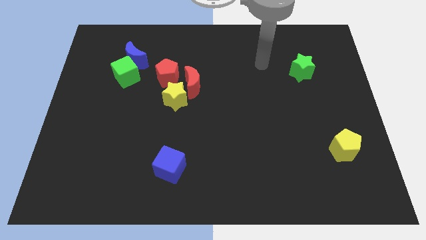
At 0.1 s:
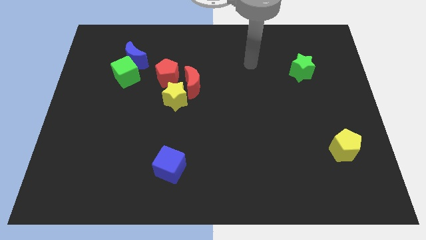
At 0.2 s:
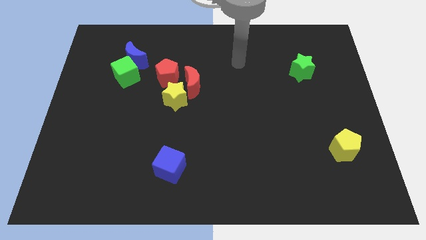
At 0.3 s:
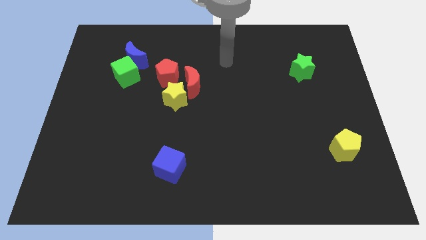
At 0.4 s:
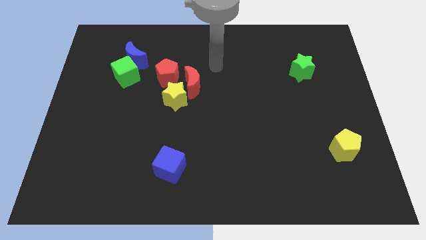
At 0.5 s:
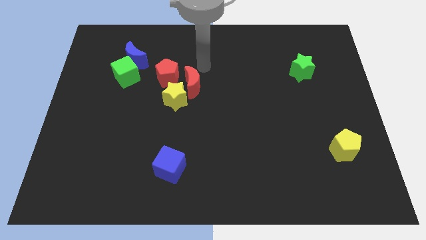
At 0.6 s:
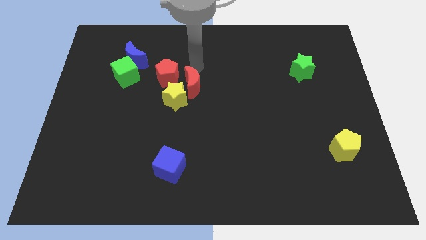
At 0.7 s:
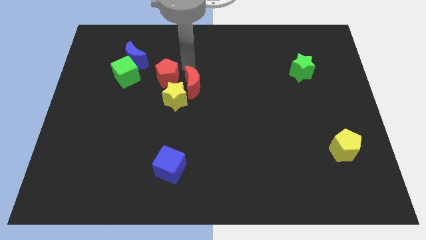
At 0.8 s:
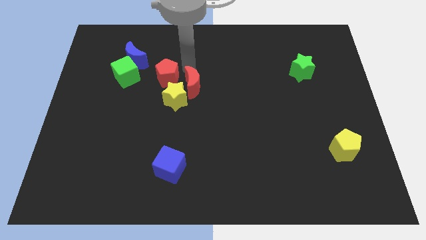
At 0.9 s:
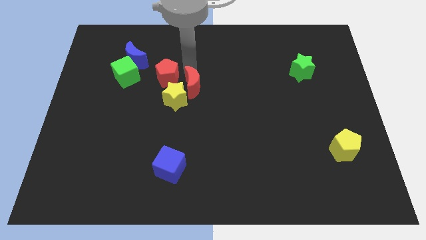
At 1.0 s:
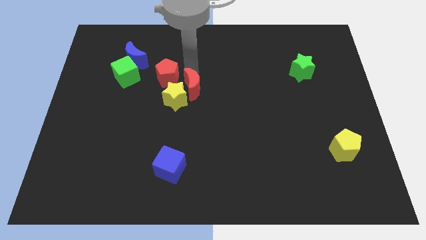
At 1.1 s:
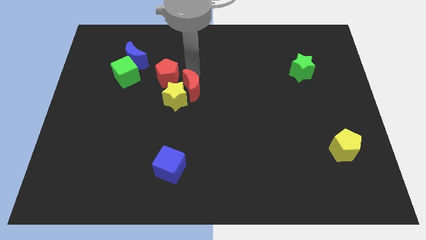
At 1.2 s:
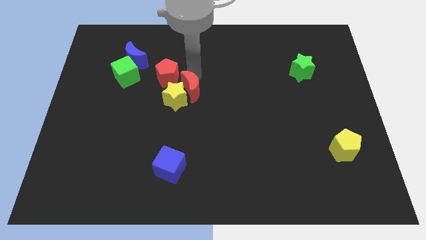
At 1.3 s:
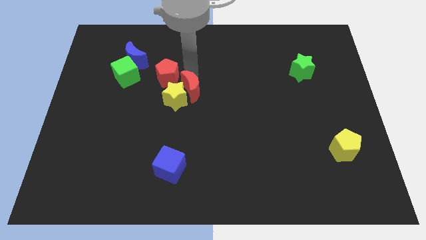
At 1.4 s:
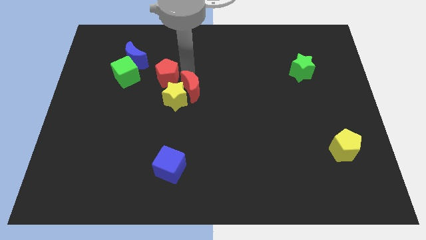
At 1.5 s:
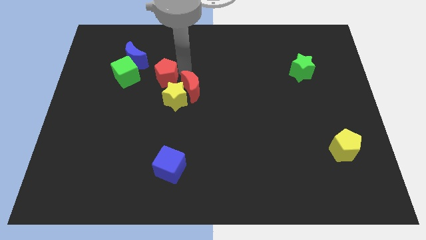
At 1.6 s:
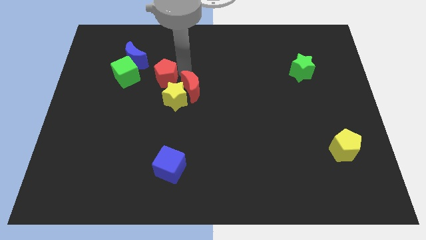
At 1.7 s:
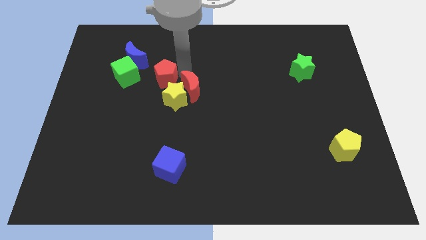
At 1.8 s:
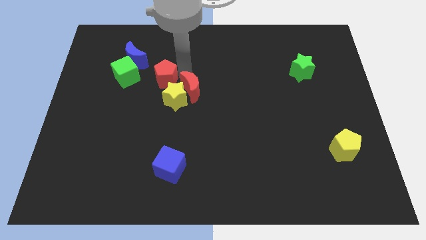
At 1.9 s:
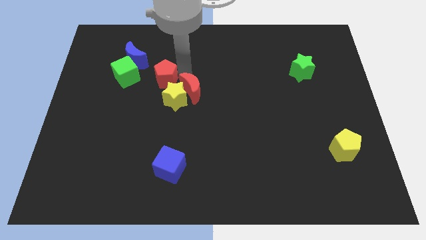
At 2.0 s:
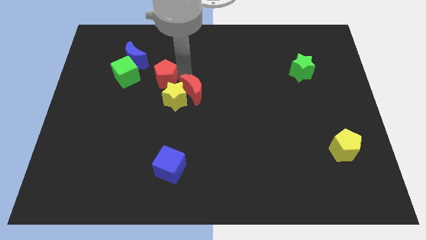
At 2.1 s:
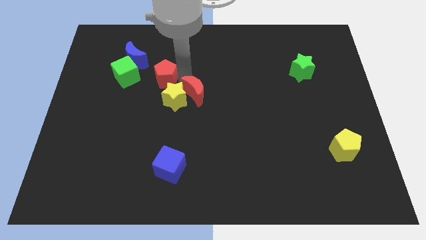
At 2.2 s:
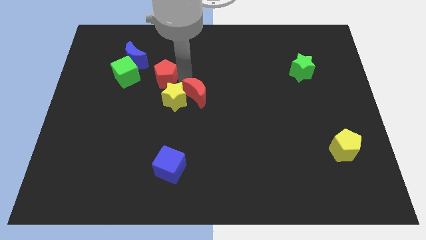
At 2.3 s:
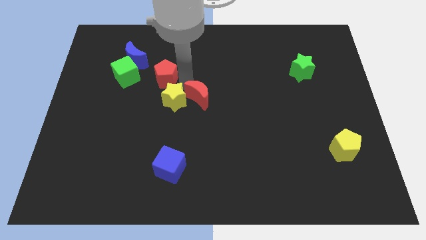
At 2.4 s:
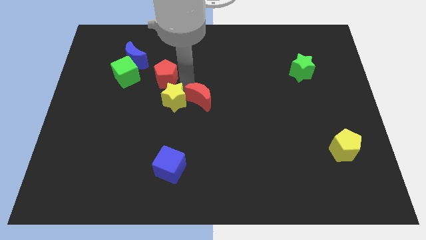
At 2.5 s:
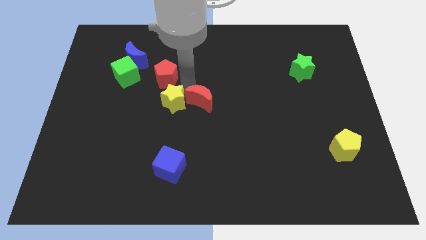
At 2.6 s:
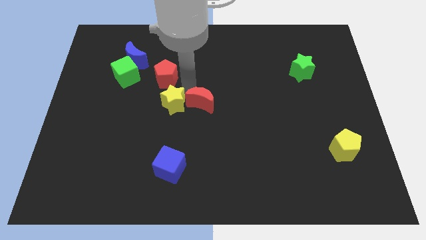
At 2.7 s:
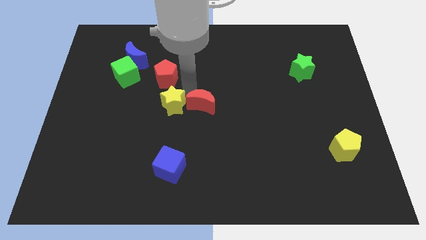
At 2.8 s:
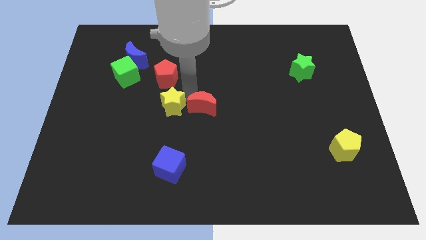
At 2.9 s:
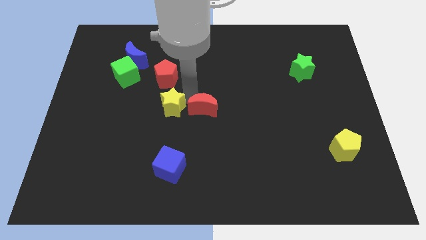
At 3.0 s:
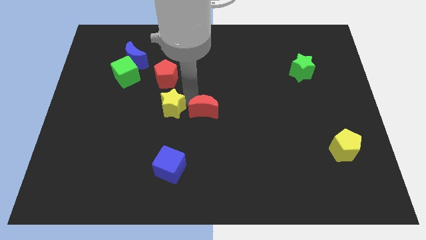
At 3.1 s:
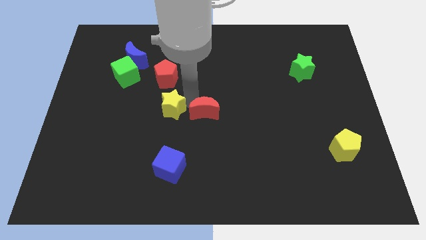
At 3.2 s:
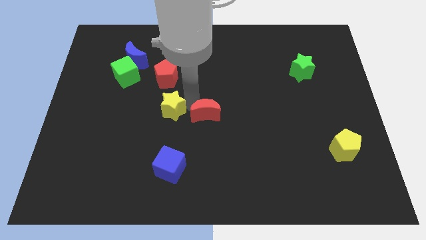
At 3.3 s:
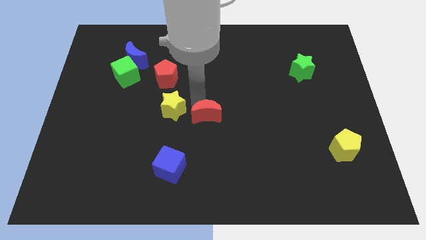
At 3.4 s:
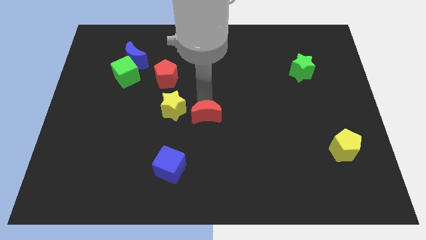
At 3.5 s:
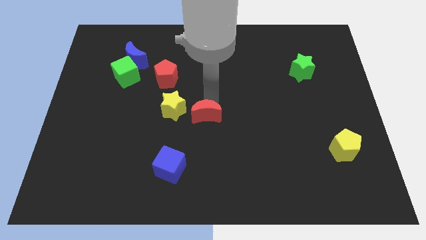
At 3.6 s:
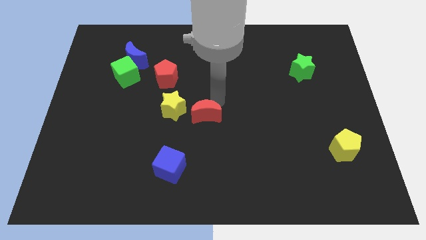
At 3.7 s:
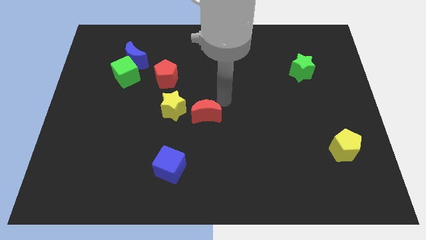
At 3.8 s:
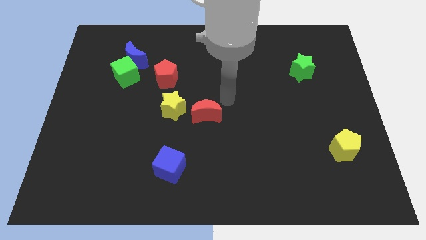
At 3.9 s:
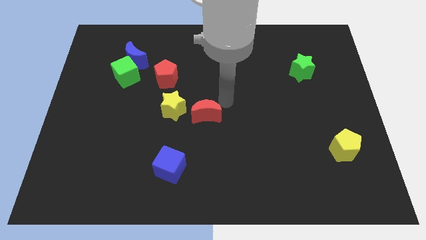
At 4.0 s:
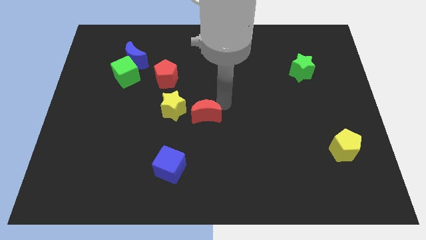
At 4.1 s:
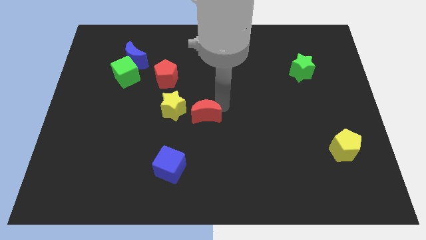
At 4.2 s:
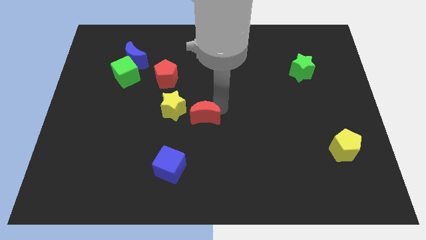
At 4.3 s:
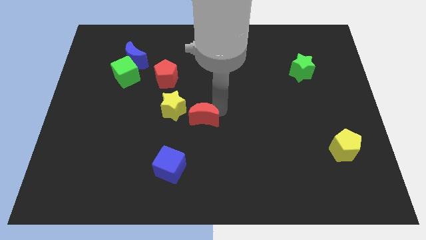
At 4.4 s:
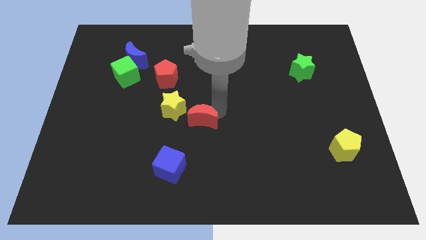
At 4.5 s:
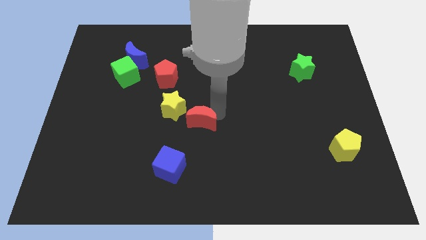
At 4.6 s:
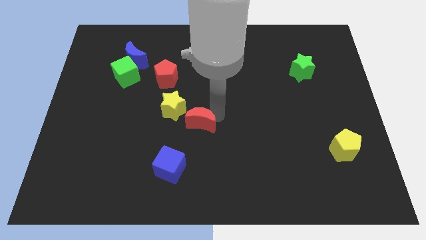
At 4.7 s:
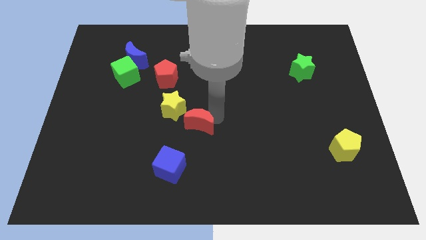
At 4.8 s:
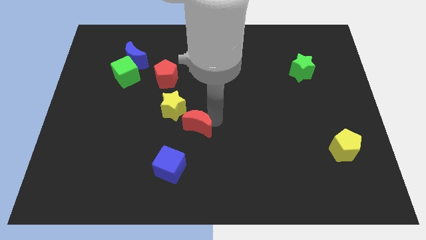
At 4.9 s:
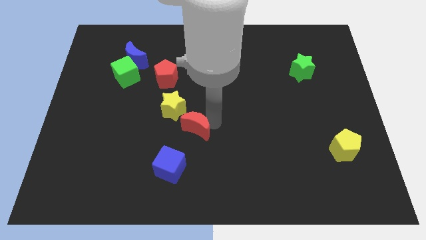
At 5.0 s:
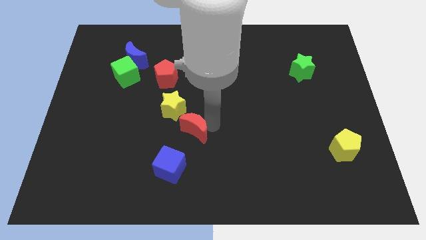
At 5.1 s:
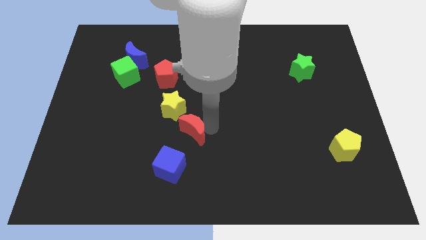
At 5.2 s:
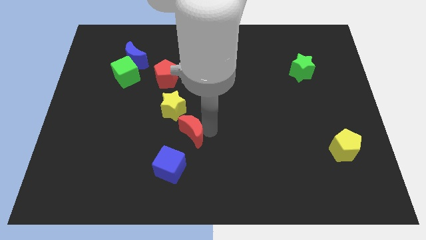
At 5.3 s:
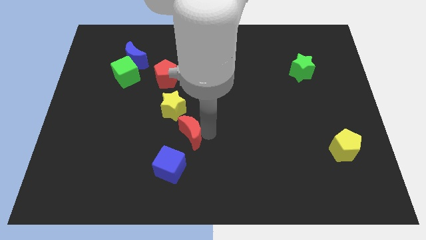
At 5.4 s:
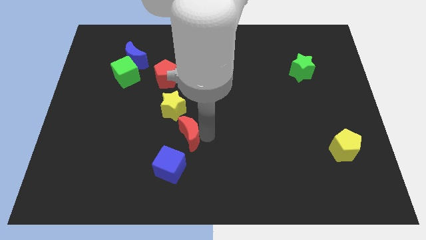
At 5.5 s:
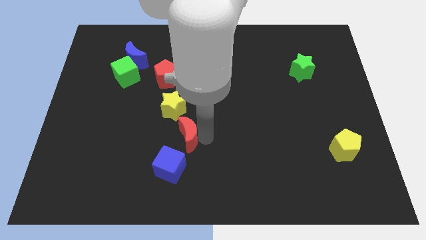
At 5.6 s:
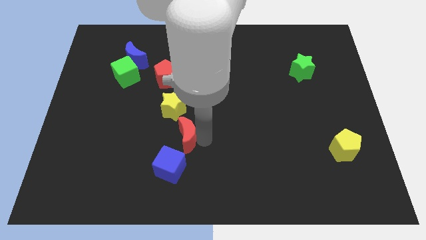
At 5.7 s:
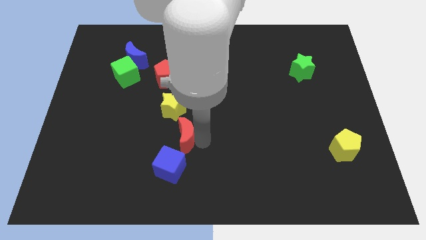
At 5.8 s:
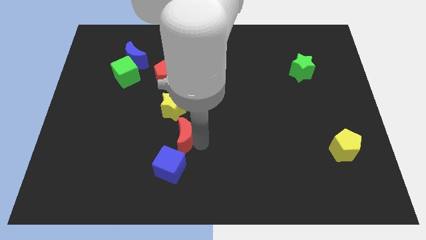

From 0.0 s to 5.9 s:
move the red moon a bit down and then to the left

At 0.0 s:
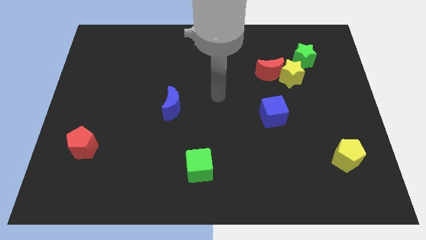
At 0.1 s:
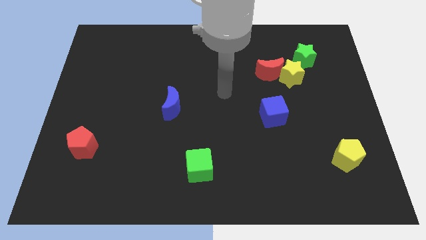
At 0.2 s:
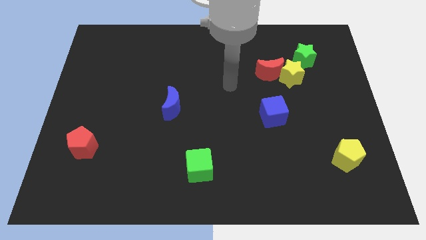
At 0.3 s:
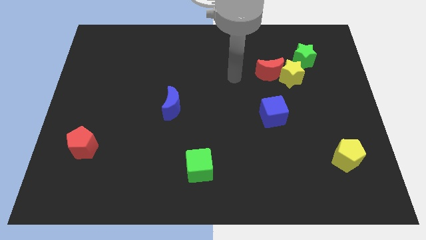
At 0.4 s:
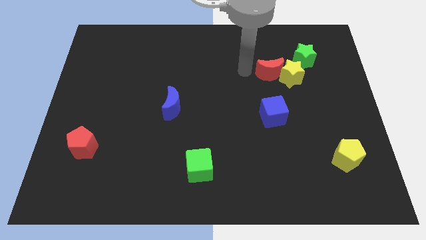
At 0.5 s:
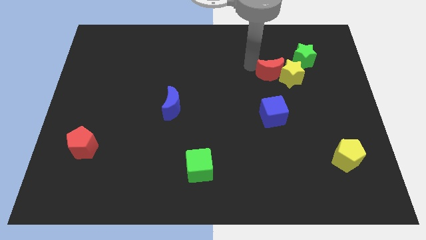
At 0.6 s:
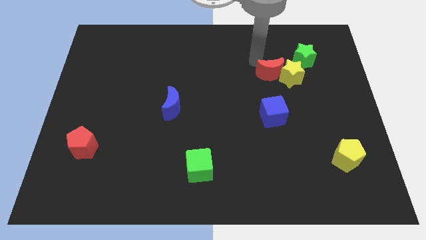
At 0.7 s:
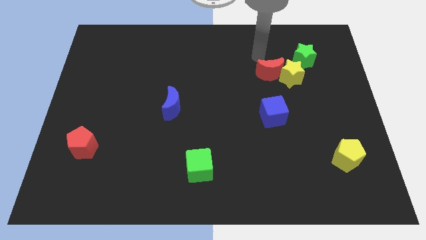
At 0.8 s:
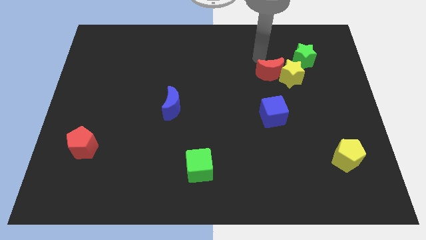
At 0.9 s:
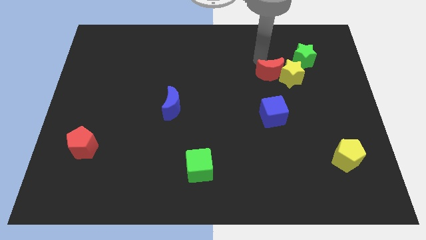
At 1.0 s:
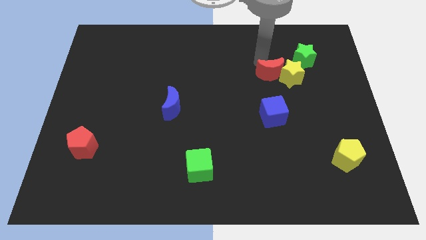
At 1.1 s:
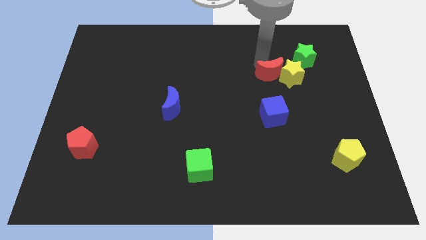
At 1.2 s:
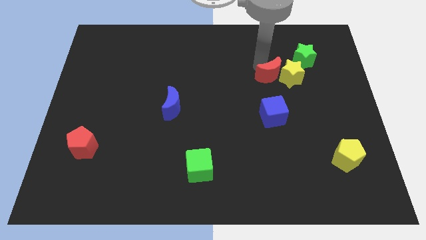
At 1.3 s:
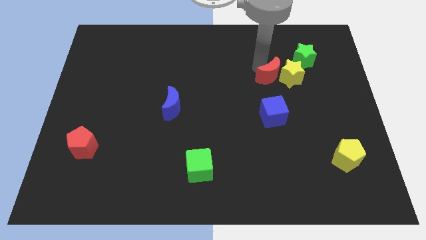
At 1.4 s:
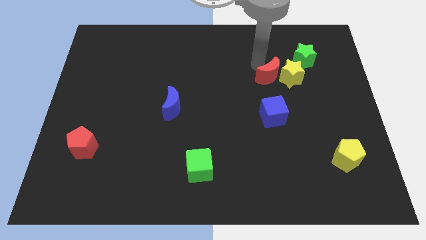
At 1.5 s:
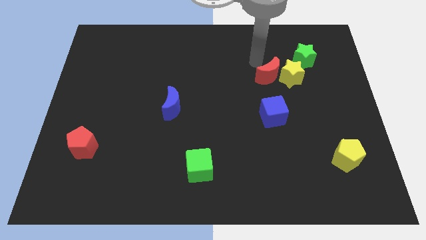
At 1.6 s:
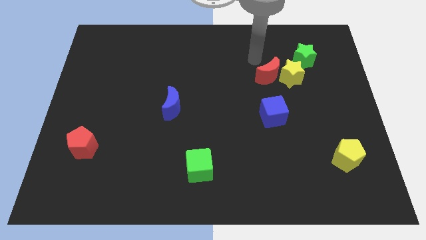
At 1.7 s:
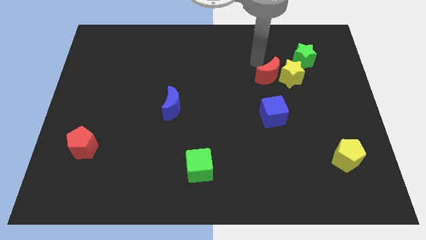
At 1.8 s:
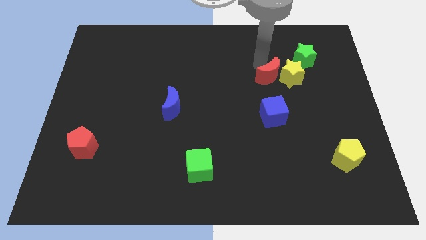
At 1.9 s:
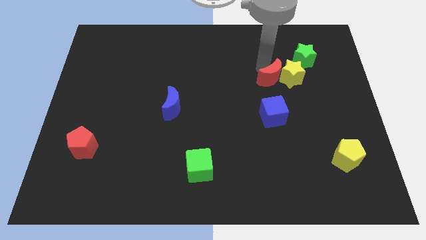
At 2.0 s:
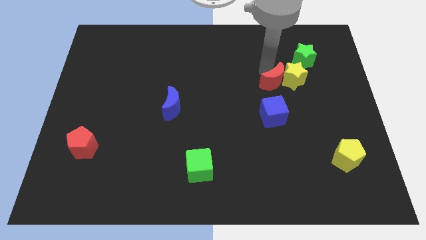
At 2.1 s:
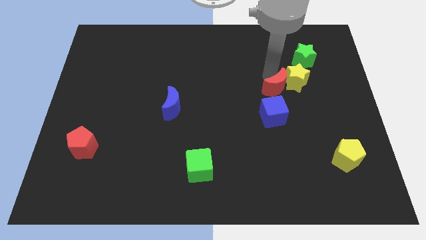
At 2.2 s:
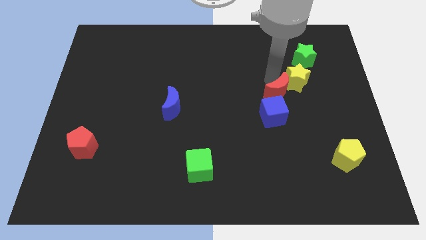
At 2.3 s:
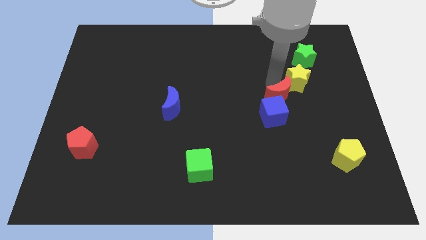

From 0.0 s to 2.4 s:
slide the red moon a little downwards
